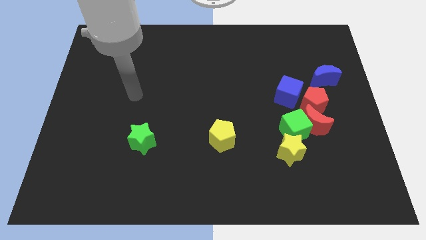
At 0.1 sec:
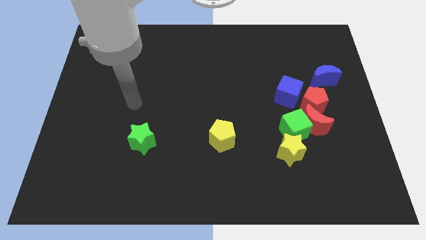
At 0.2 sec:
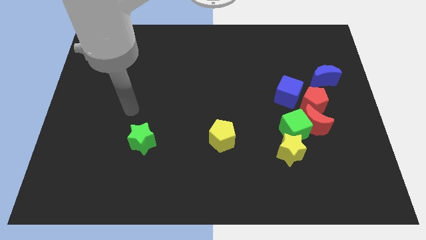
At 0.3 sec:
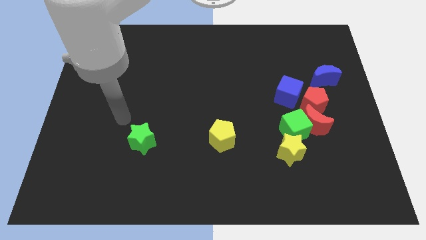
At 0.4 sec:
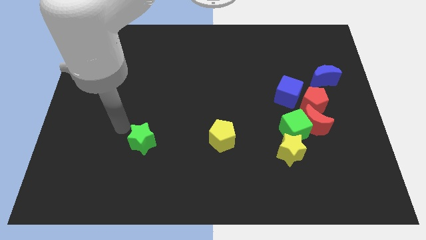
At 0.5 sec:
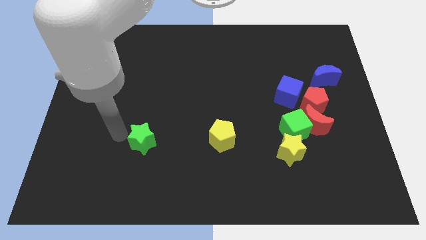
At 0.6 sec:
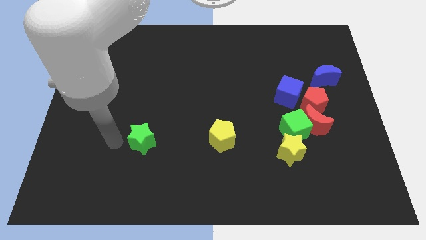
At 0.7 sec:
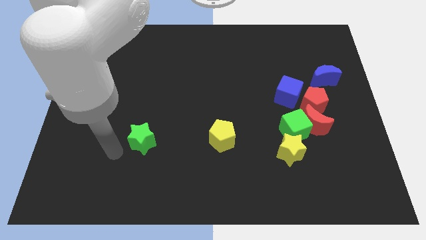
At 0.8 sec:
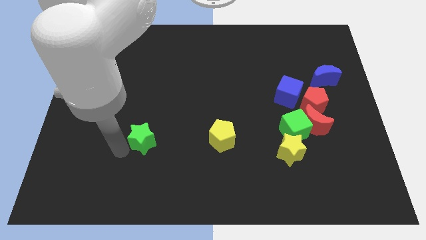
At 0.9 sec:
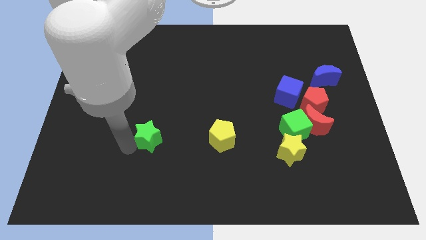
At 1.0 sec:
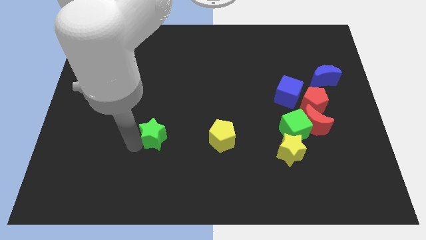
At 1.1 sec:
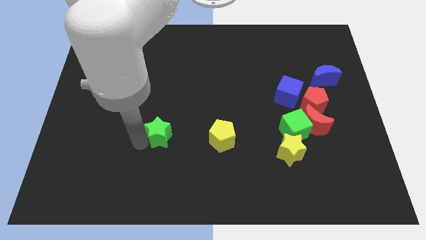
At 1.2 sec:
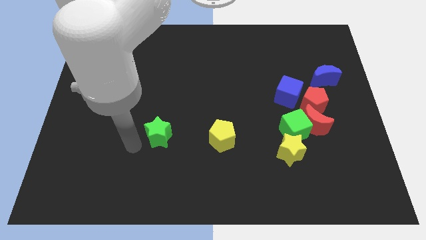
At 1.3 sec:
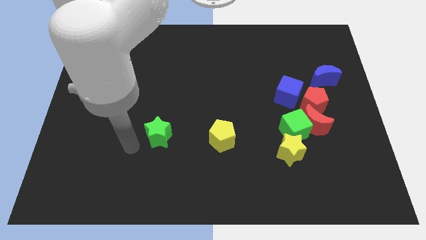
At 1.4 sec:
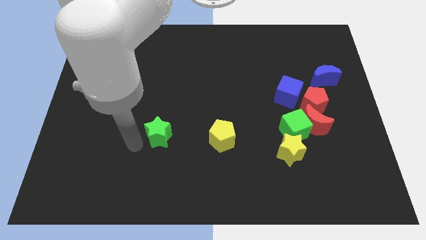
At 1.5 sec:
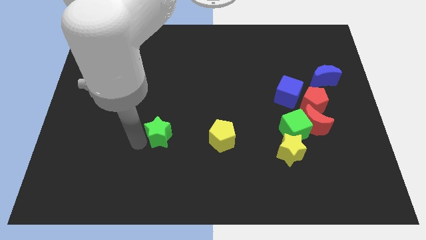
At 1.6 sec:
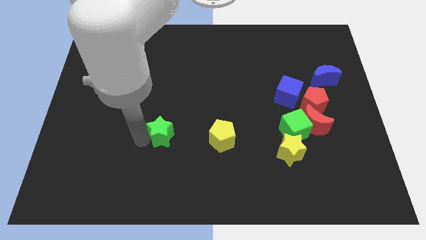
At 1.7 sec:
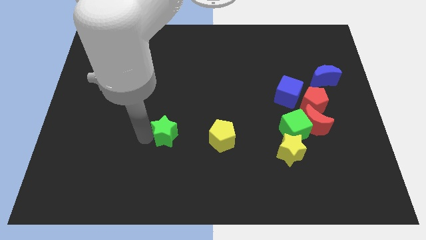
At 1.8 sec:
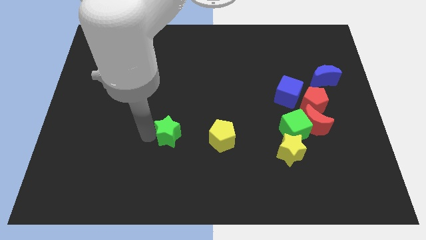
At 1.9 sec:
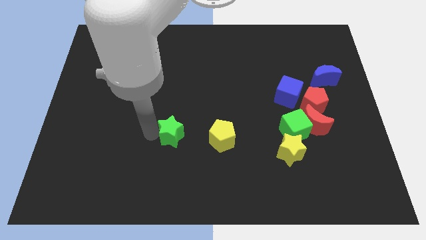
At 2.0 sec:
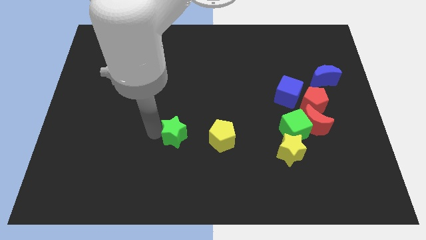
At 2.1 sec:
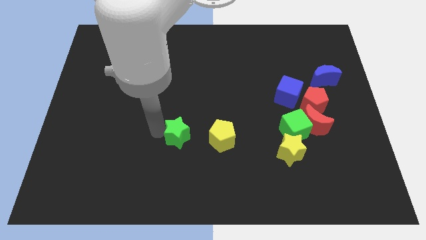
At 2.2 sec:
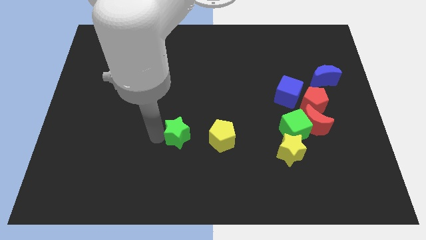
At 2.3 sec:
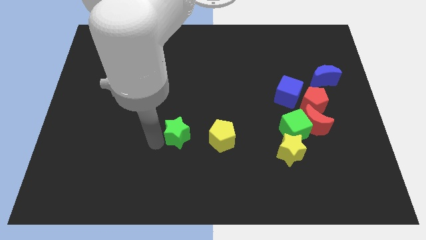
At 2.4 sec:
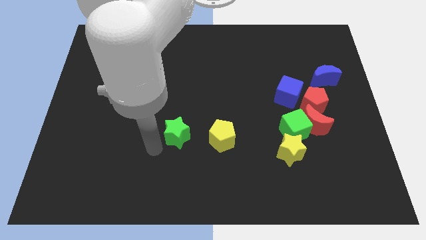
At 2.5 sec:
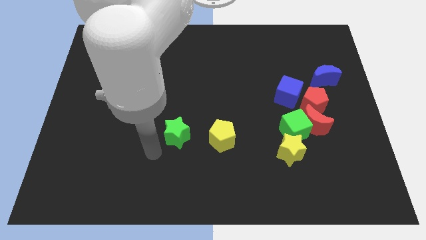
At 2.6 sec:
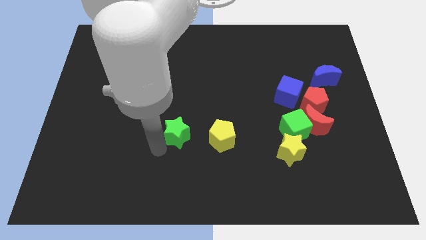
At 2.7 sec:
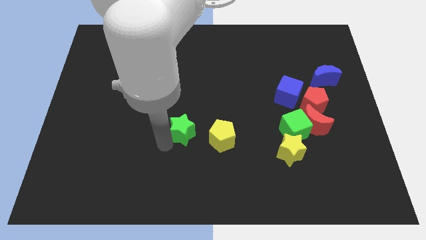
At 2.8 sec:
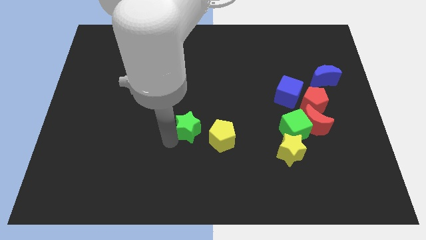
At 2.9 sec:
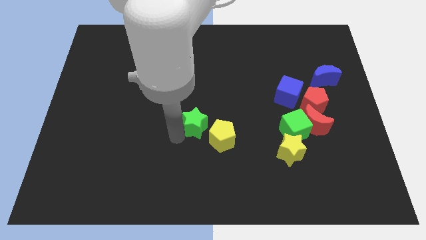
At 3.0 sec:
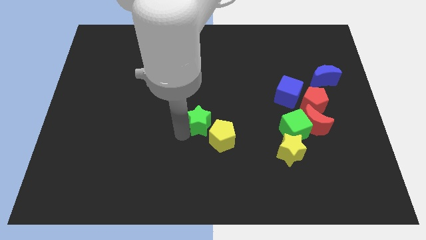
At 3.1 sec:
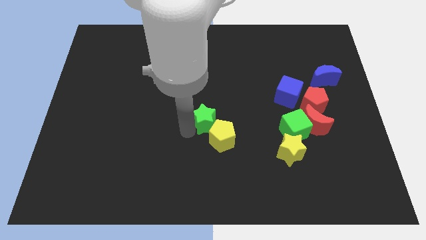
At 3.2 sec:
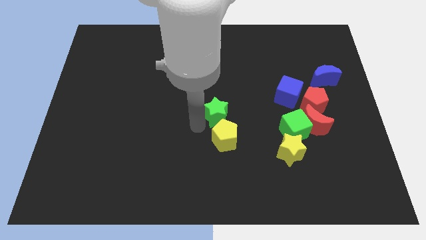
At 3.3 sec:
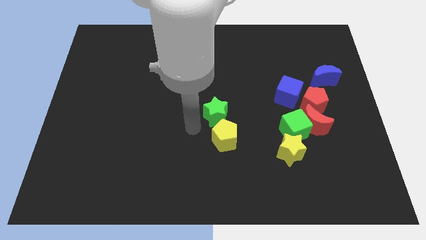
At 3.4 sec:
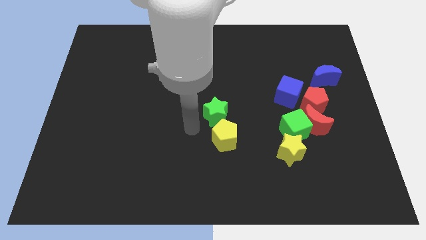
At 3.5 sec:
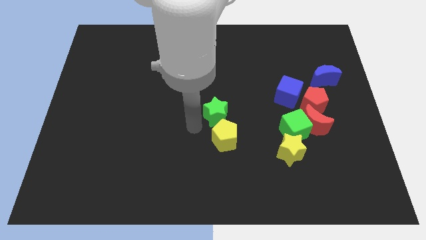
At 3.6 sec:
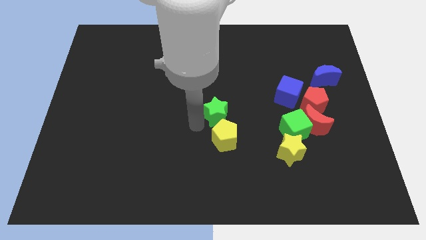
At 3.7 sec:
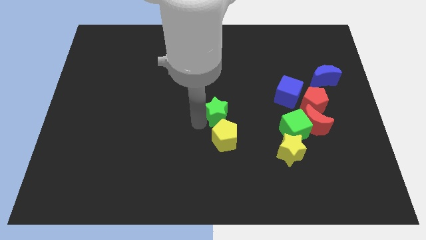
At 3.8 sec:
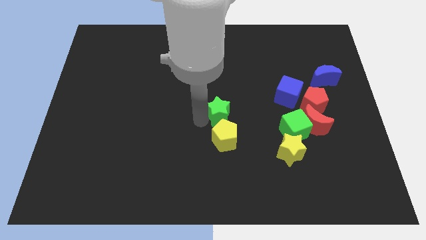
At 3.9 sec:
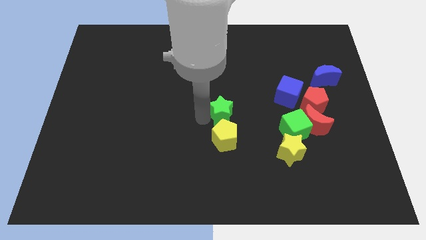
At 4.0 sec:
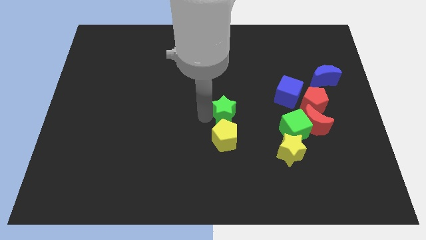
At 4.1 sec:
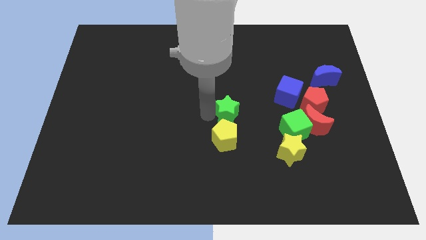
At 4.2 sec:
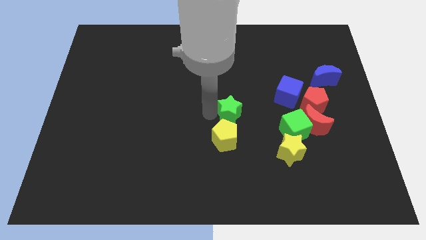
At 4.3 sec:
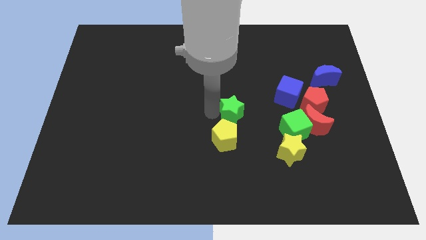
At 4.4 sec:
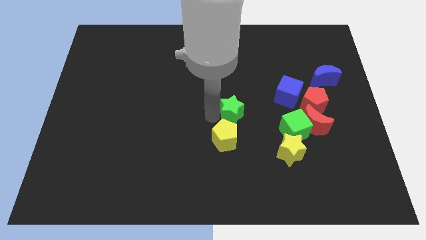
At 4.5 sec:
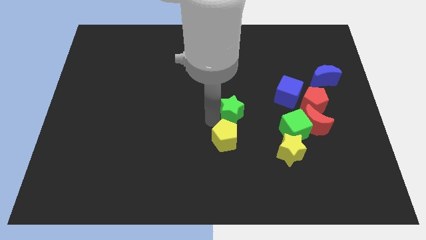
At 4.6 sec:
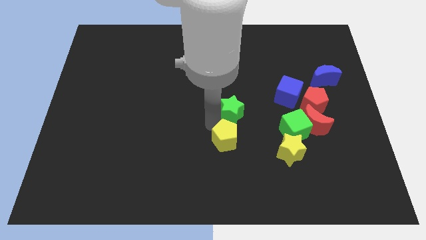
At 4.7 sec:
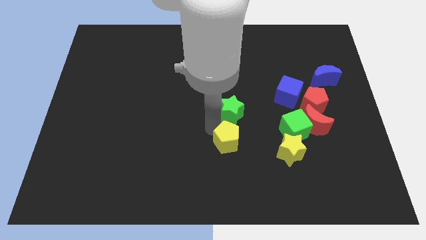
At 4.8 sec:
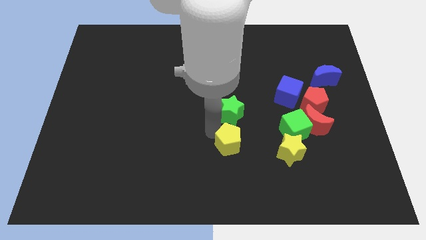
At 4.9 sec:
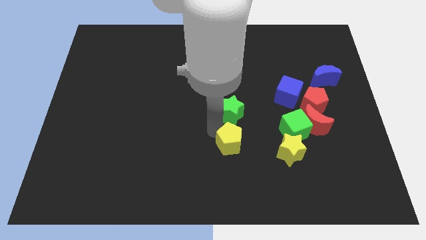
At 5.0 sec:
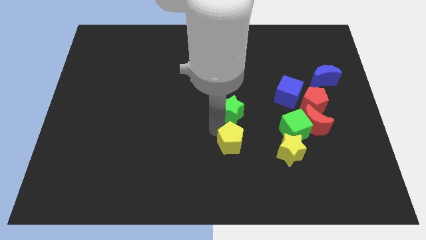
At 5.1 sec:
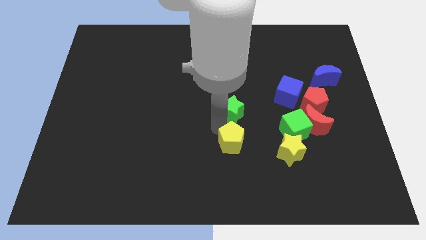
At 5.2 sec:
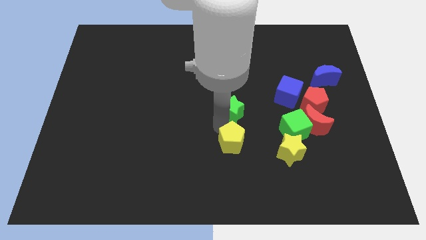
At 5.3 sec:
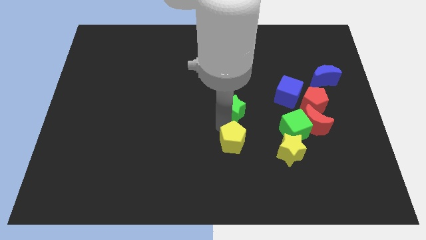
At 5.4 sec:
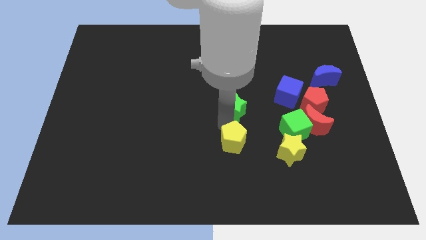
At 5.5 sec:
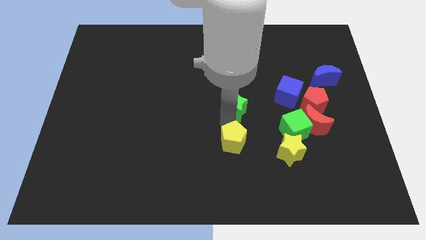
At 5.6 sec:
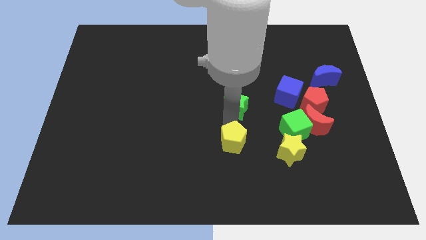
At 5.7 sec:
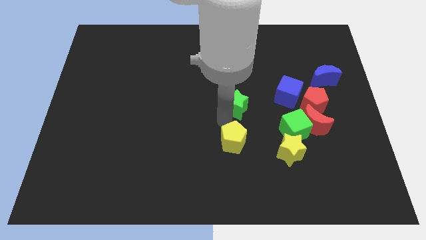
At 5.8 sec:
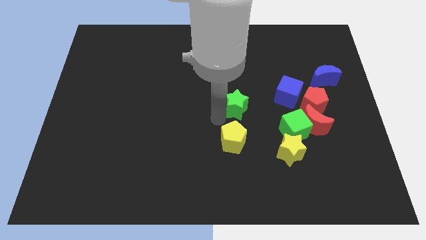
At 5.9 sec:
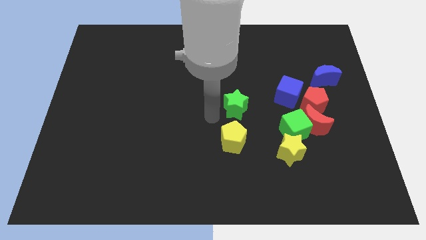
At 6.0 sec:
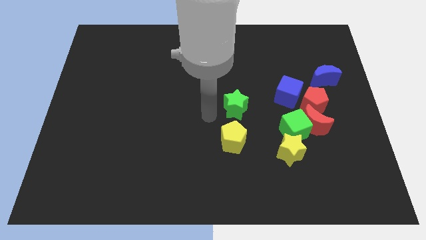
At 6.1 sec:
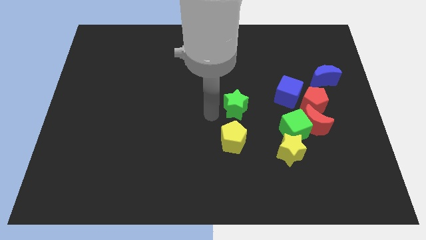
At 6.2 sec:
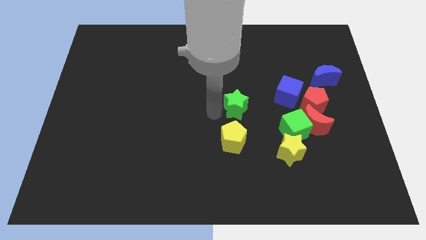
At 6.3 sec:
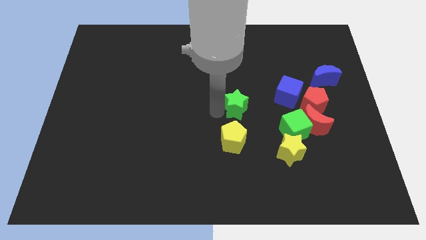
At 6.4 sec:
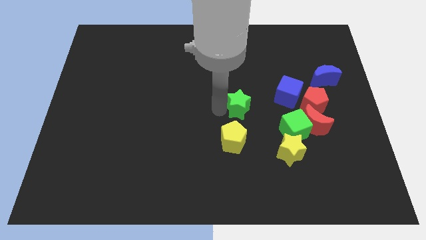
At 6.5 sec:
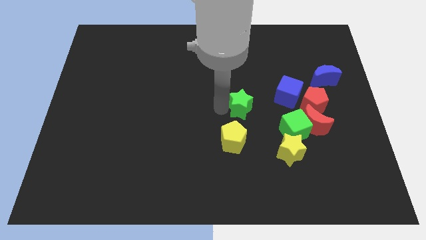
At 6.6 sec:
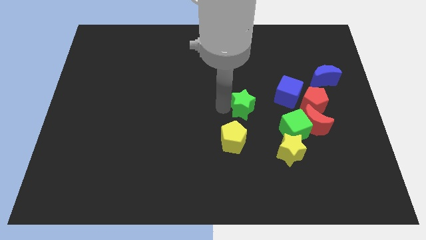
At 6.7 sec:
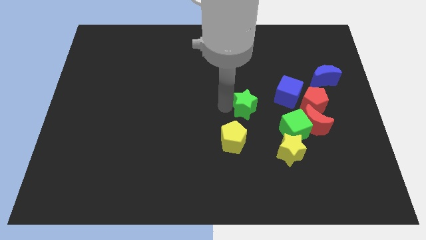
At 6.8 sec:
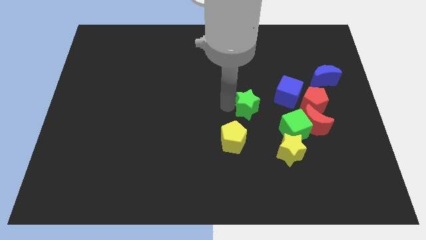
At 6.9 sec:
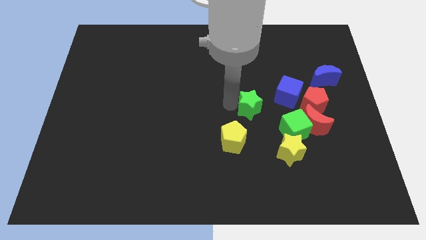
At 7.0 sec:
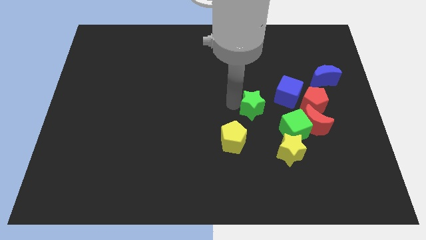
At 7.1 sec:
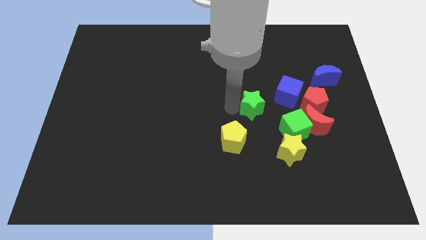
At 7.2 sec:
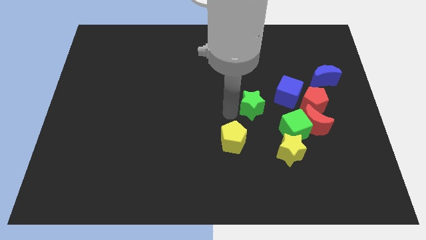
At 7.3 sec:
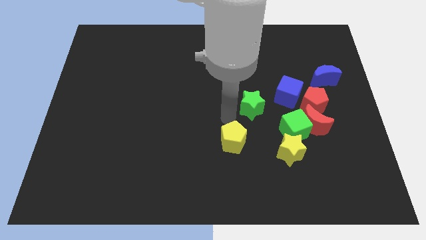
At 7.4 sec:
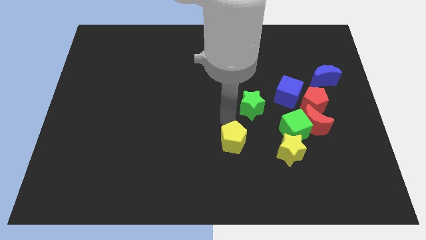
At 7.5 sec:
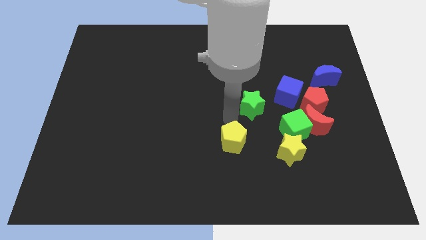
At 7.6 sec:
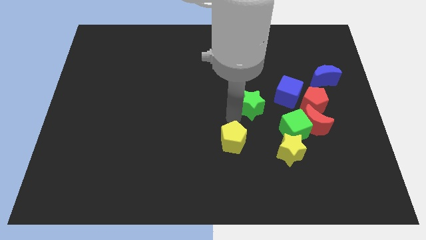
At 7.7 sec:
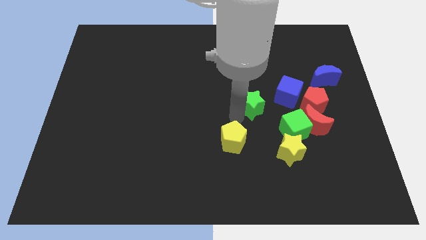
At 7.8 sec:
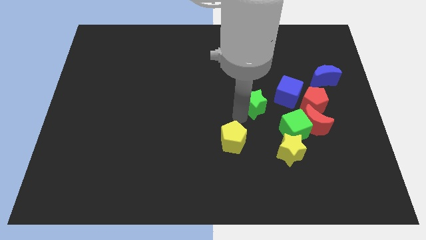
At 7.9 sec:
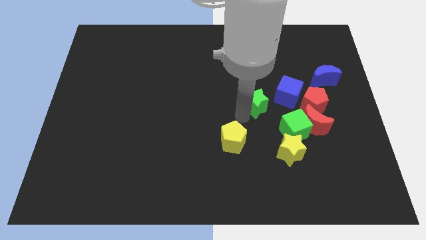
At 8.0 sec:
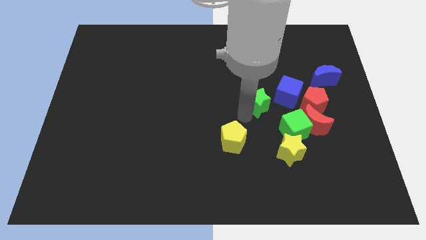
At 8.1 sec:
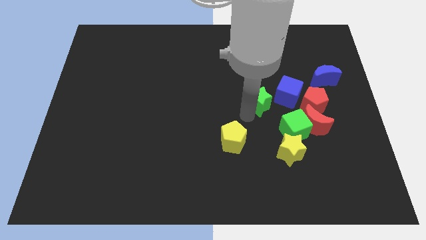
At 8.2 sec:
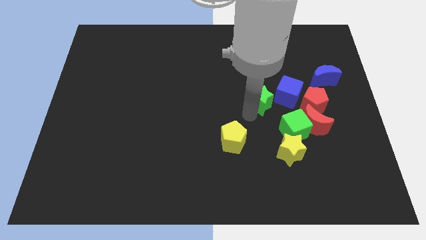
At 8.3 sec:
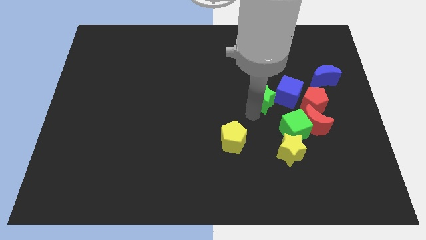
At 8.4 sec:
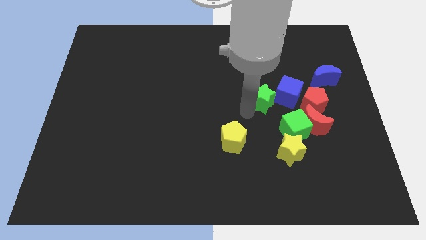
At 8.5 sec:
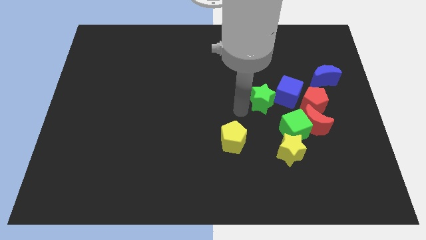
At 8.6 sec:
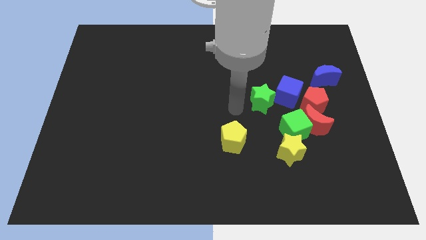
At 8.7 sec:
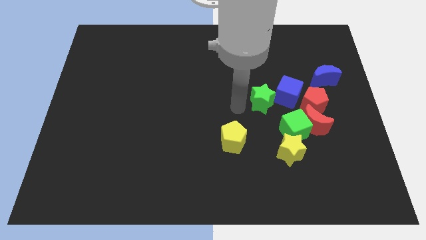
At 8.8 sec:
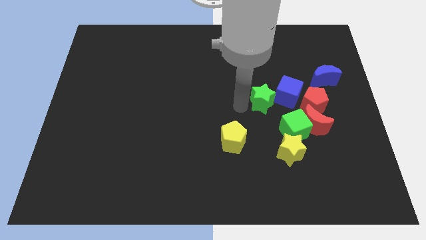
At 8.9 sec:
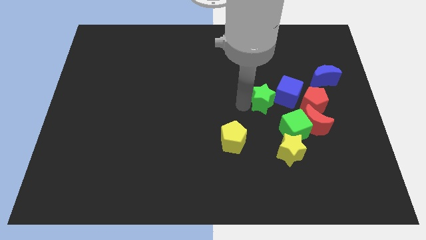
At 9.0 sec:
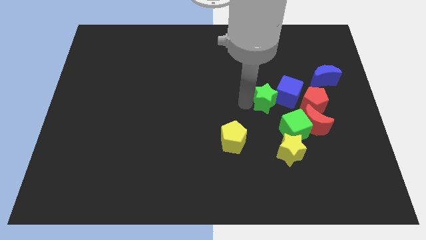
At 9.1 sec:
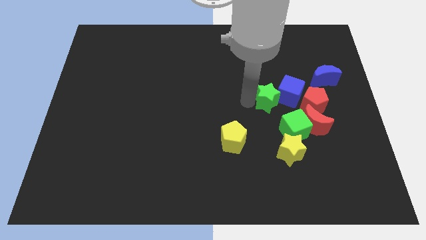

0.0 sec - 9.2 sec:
move the green star to the blue cube
